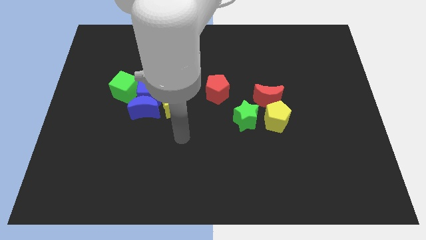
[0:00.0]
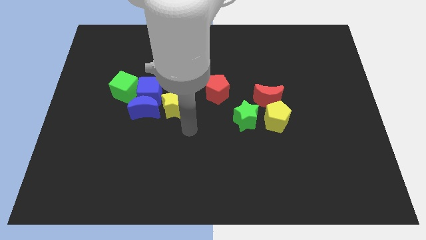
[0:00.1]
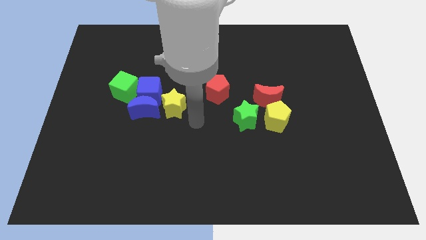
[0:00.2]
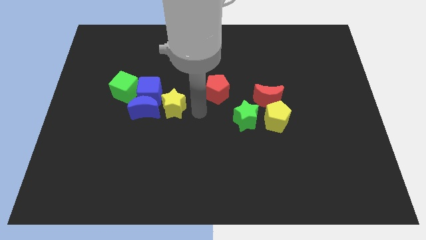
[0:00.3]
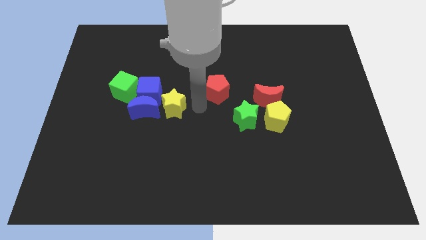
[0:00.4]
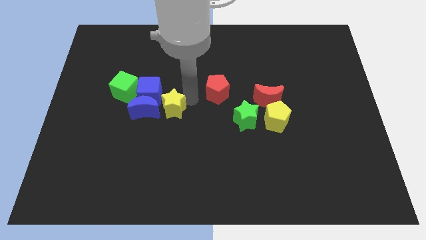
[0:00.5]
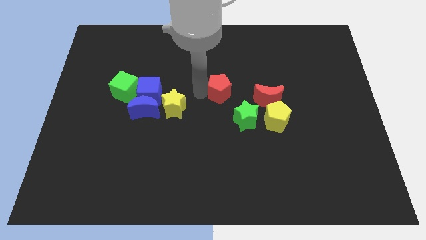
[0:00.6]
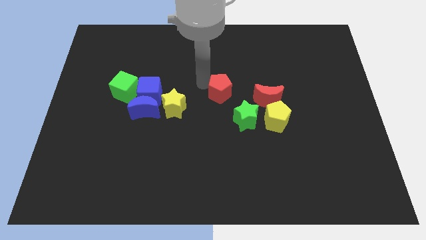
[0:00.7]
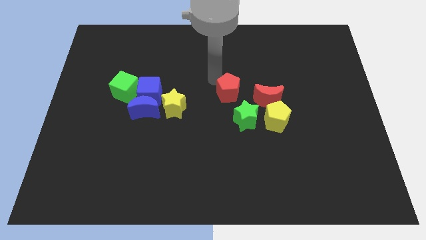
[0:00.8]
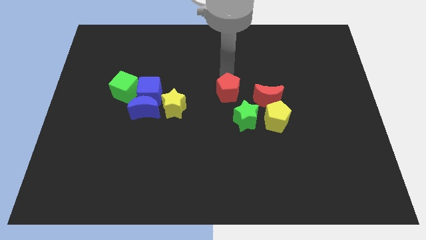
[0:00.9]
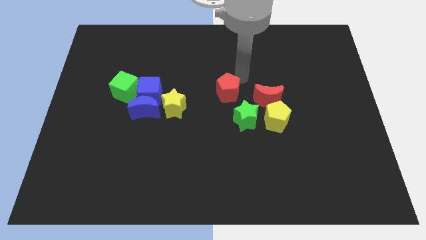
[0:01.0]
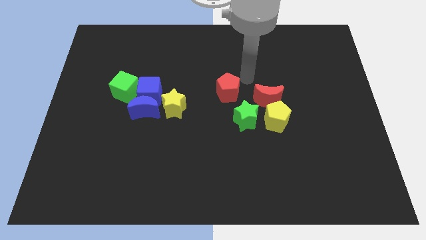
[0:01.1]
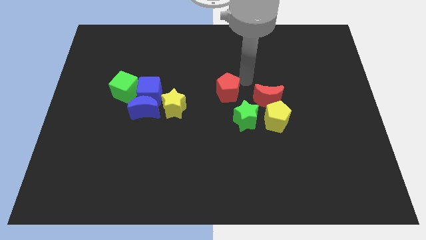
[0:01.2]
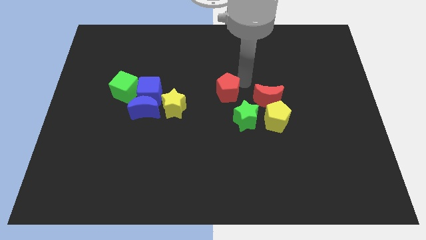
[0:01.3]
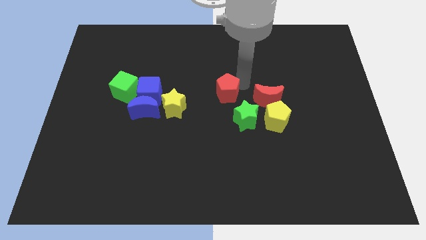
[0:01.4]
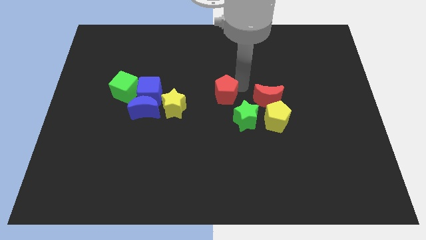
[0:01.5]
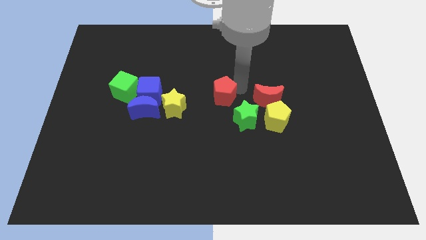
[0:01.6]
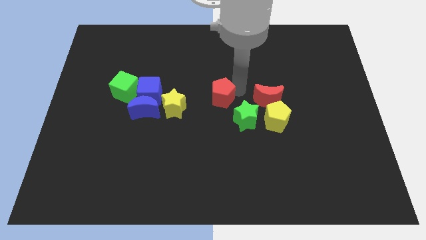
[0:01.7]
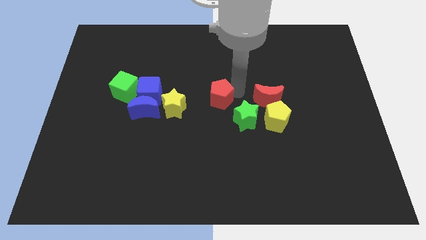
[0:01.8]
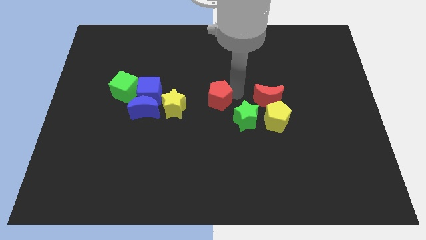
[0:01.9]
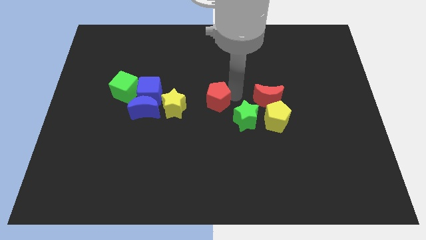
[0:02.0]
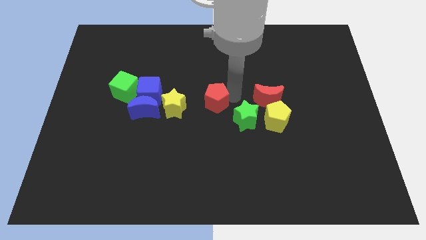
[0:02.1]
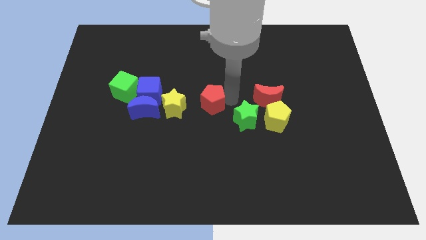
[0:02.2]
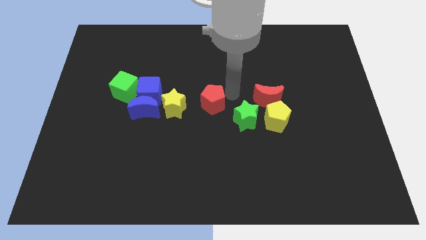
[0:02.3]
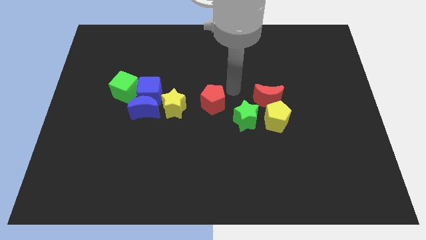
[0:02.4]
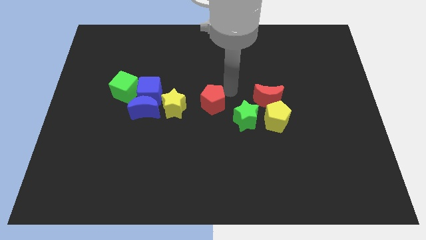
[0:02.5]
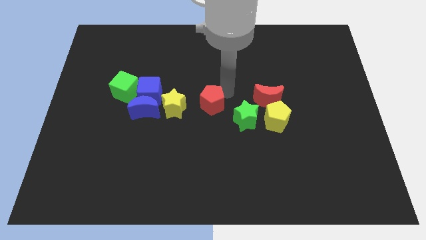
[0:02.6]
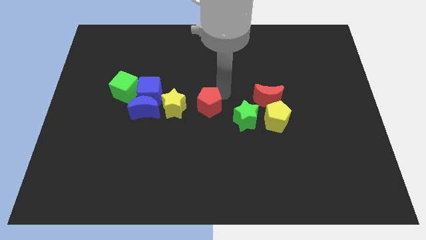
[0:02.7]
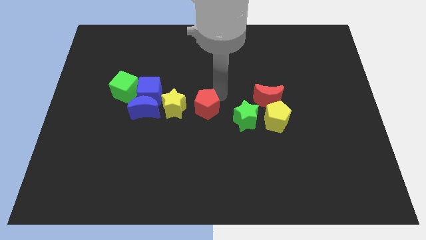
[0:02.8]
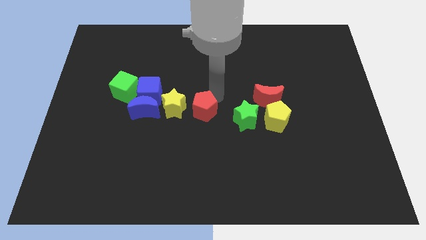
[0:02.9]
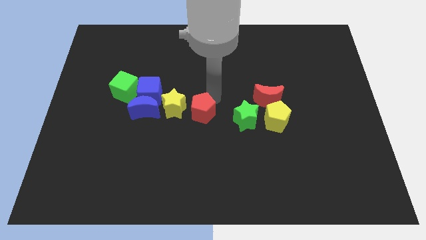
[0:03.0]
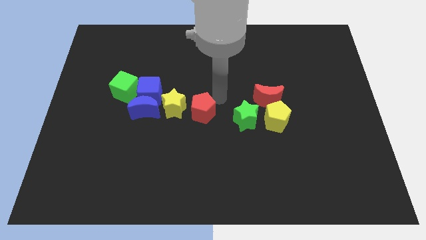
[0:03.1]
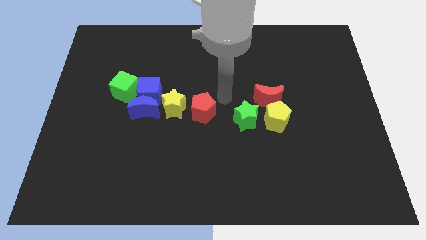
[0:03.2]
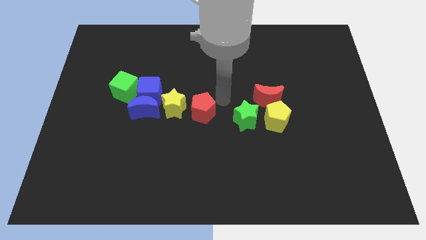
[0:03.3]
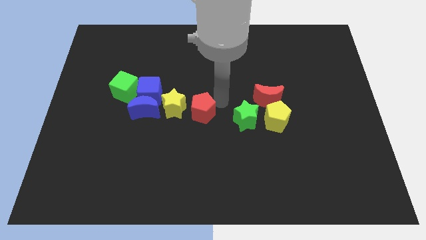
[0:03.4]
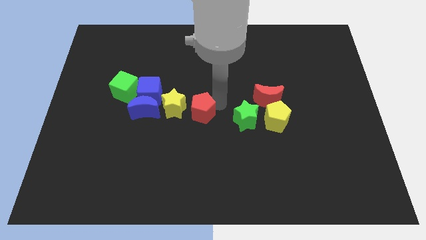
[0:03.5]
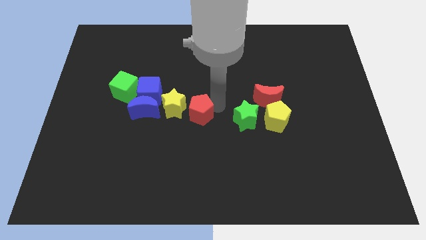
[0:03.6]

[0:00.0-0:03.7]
slightly move the red pentagon downwards and left diagonally

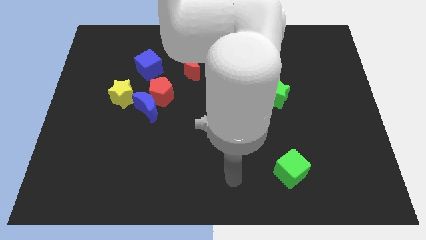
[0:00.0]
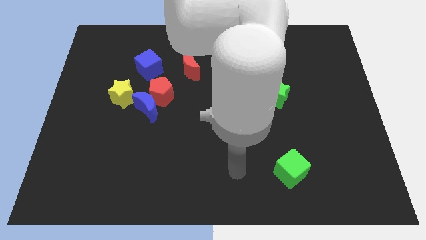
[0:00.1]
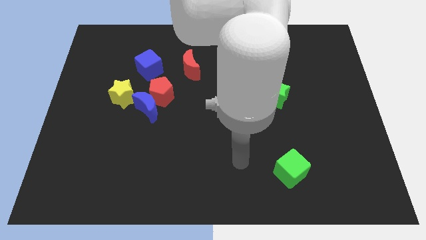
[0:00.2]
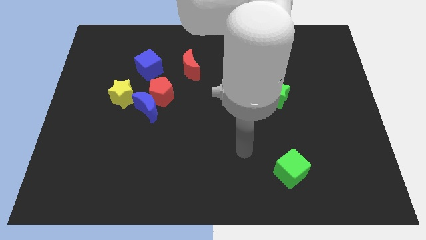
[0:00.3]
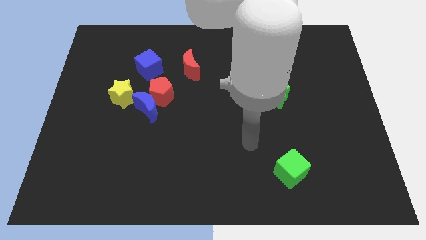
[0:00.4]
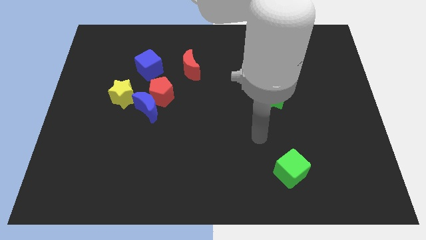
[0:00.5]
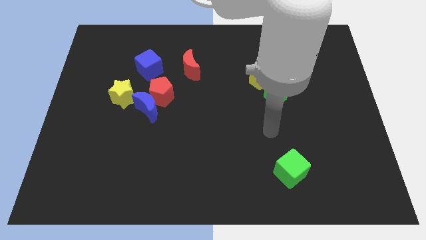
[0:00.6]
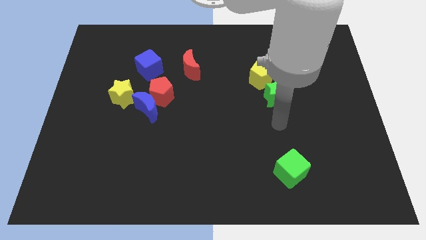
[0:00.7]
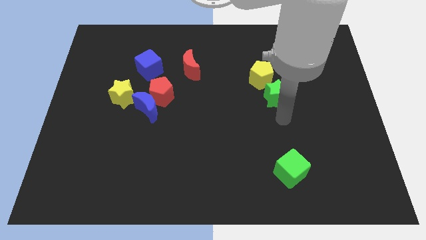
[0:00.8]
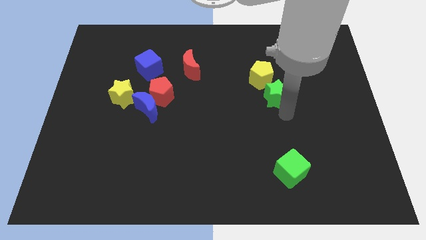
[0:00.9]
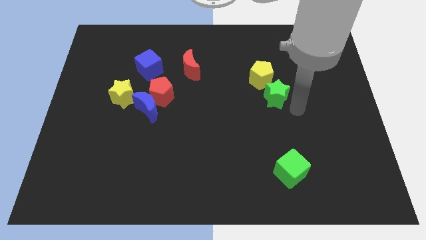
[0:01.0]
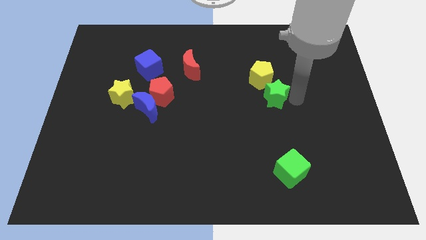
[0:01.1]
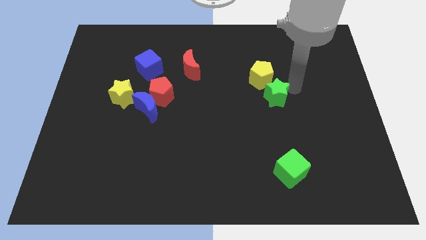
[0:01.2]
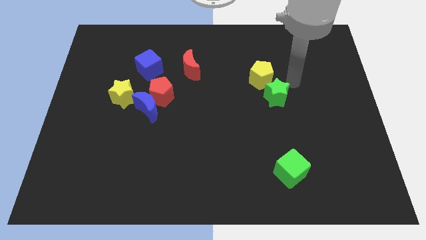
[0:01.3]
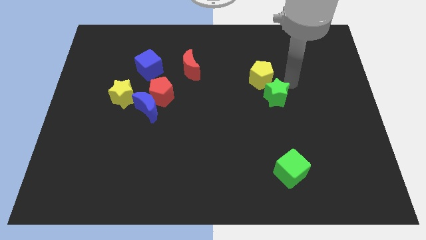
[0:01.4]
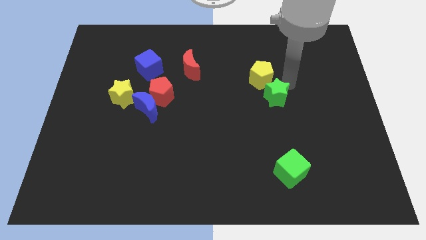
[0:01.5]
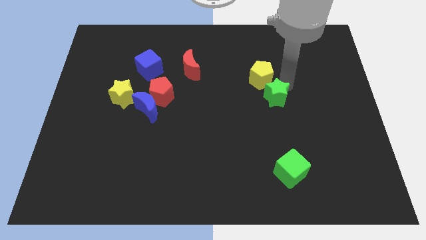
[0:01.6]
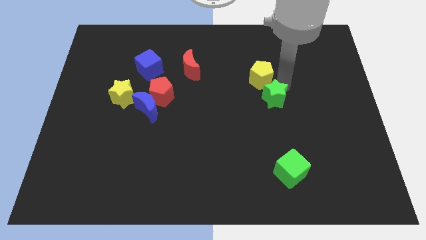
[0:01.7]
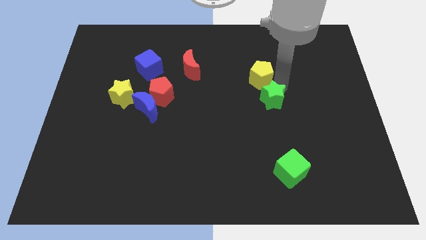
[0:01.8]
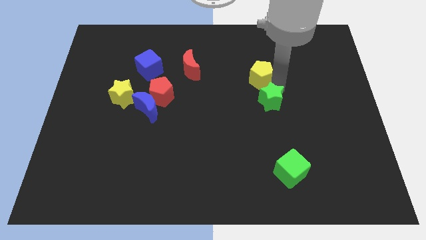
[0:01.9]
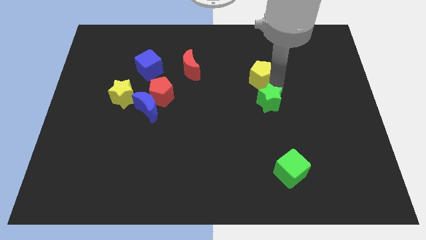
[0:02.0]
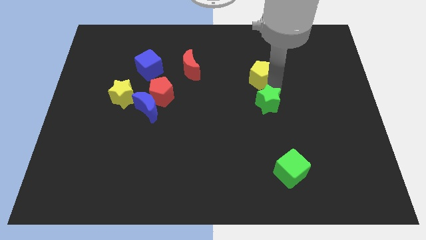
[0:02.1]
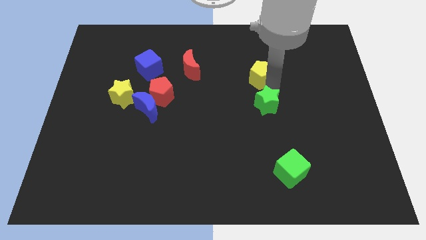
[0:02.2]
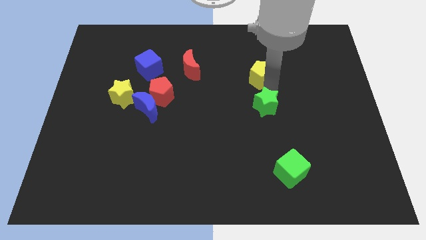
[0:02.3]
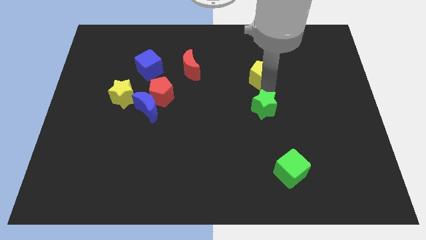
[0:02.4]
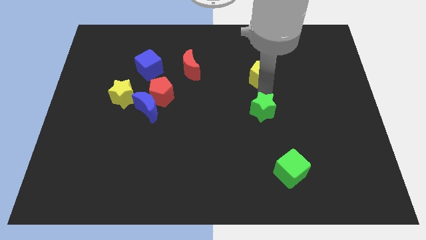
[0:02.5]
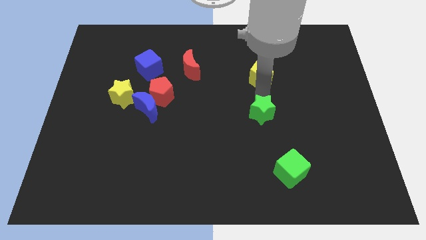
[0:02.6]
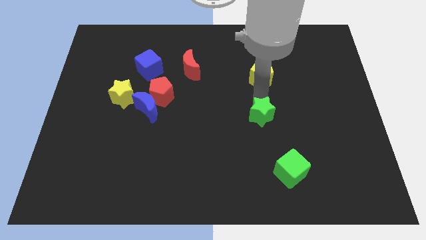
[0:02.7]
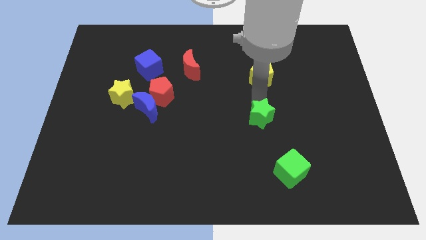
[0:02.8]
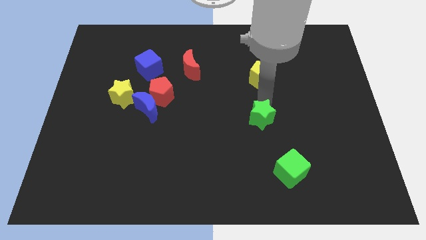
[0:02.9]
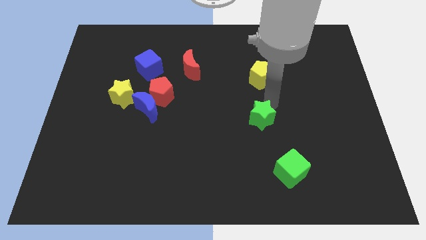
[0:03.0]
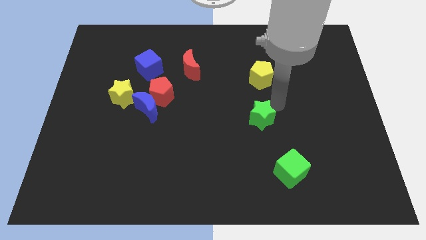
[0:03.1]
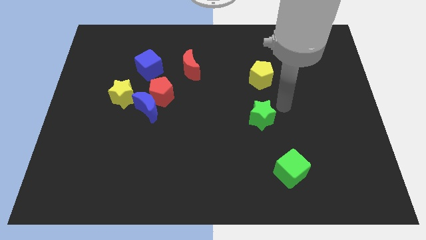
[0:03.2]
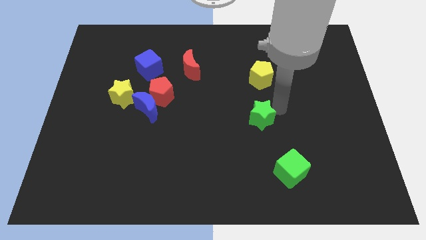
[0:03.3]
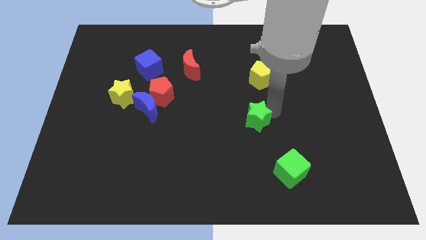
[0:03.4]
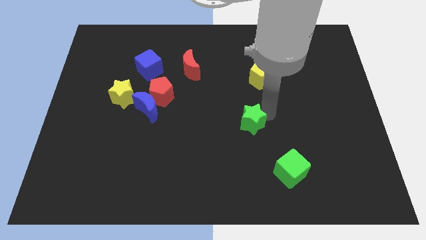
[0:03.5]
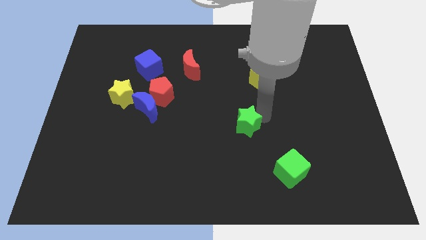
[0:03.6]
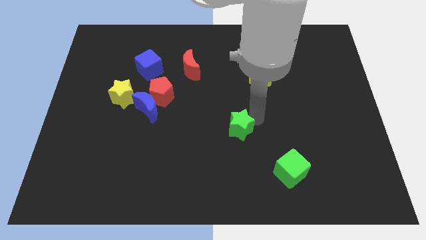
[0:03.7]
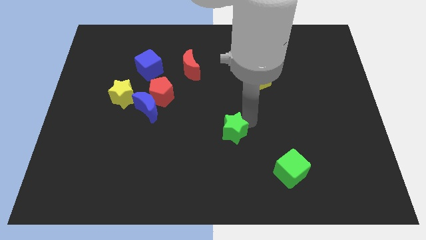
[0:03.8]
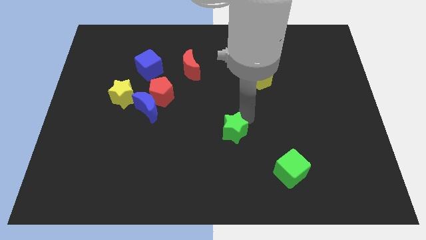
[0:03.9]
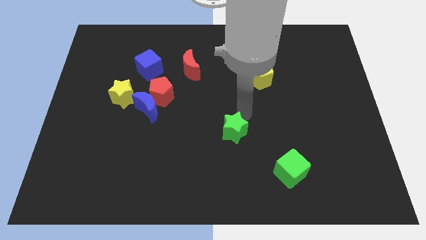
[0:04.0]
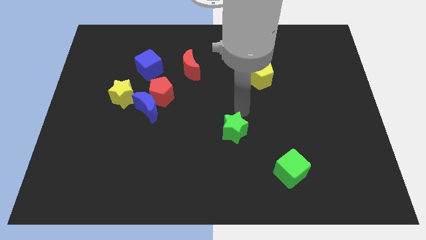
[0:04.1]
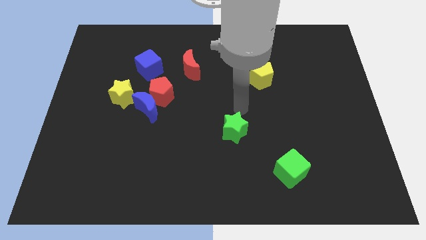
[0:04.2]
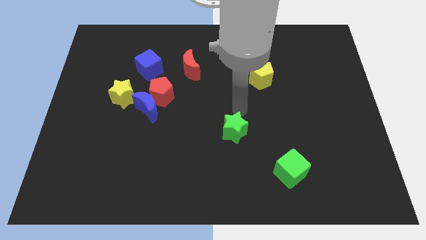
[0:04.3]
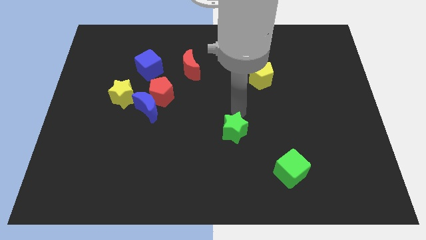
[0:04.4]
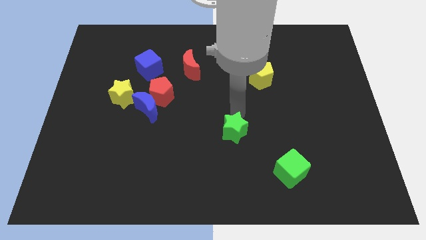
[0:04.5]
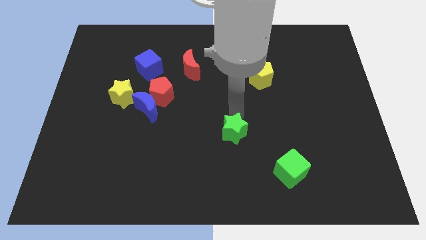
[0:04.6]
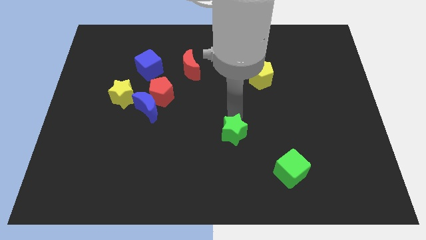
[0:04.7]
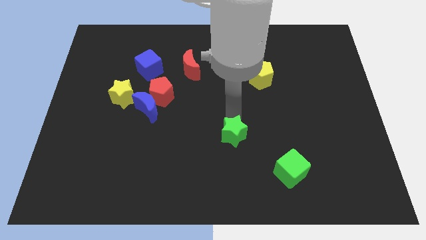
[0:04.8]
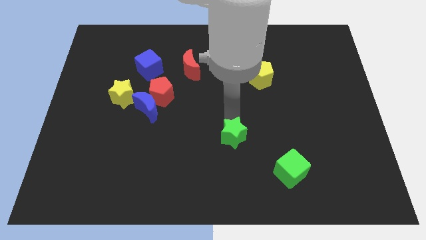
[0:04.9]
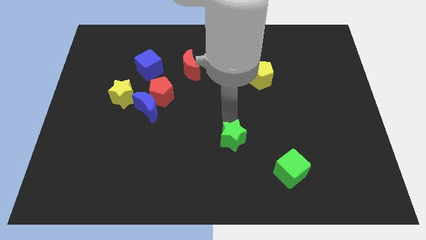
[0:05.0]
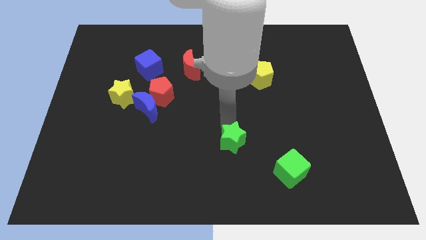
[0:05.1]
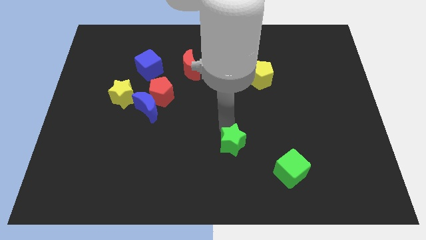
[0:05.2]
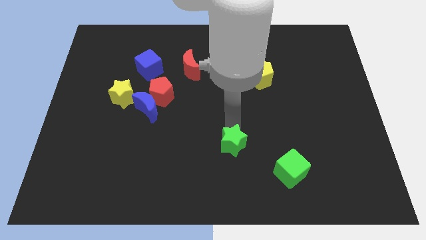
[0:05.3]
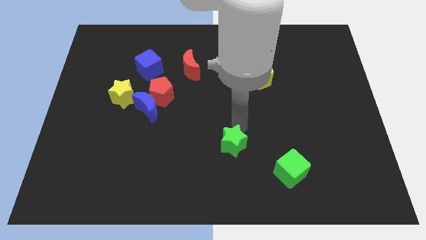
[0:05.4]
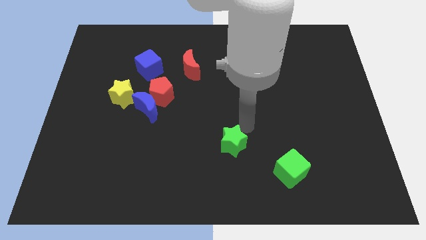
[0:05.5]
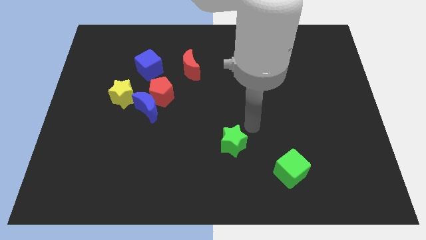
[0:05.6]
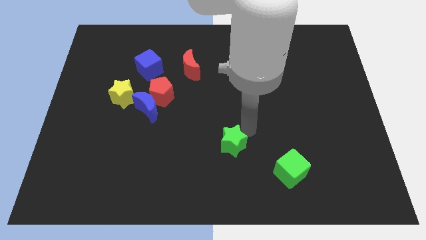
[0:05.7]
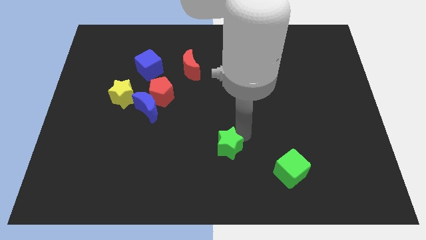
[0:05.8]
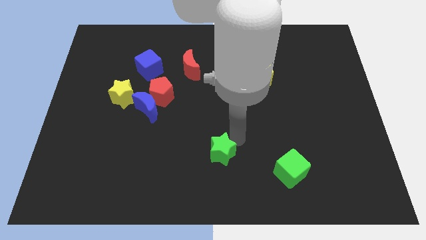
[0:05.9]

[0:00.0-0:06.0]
move the green star downwards and to the left
